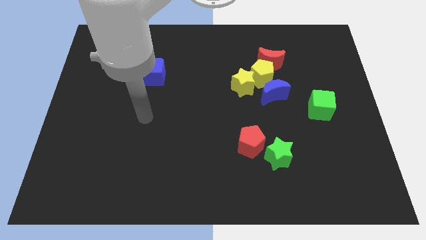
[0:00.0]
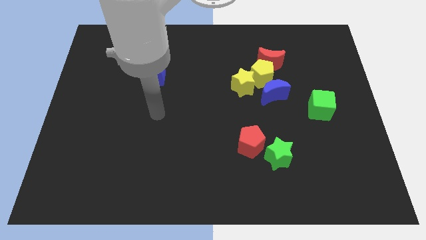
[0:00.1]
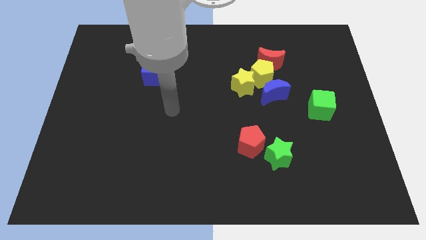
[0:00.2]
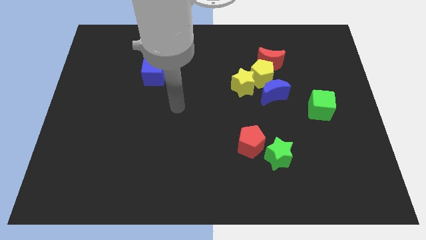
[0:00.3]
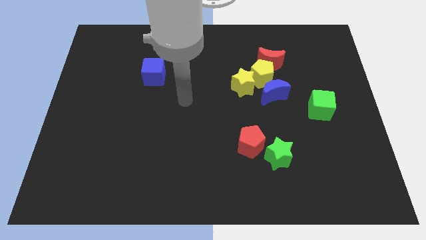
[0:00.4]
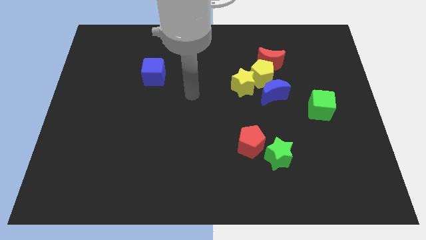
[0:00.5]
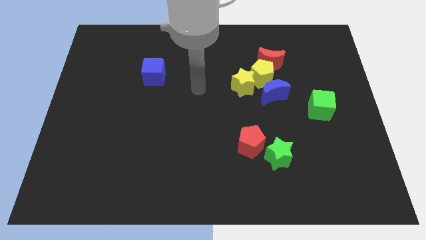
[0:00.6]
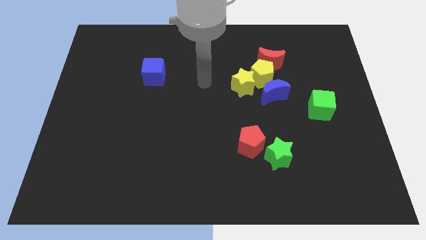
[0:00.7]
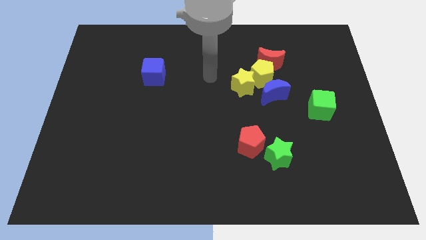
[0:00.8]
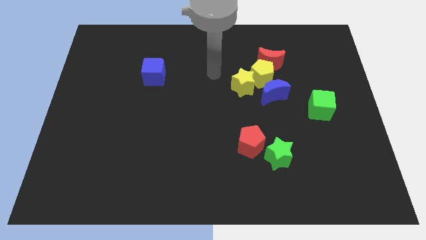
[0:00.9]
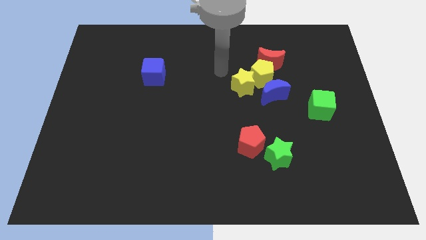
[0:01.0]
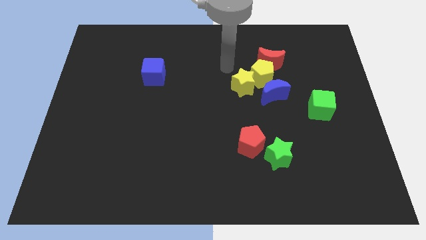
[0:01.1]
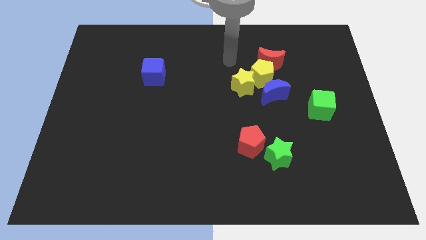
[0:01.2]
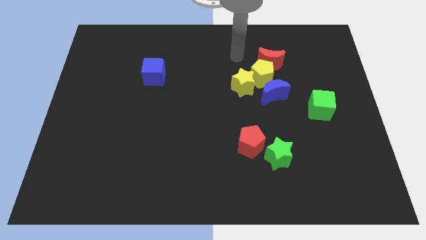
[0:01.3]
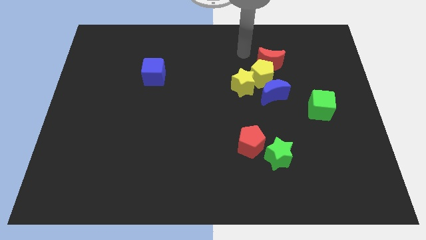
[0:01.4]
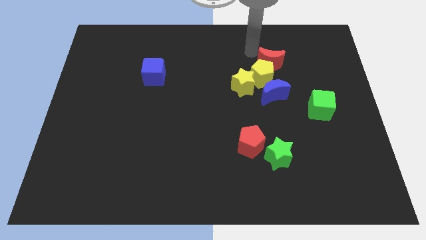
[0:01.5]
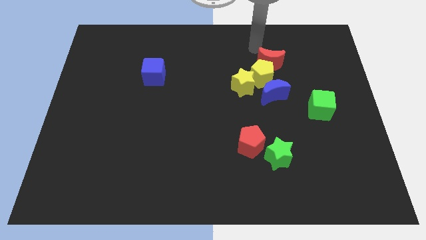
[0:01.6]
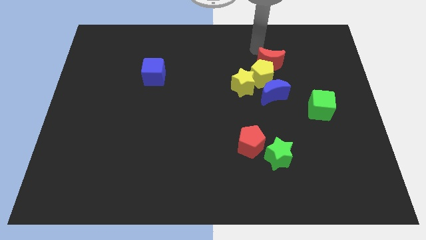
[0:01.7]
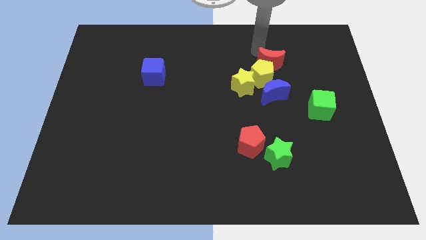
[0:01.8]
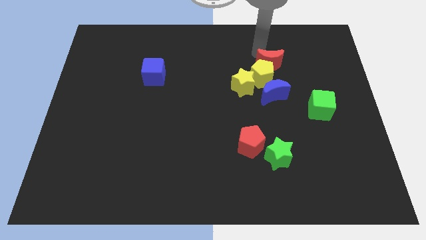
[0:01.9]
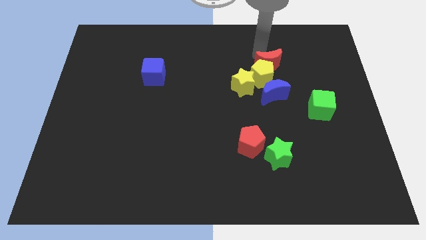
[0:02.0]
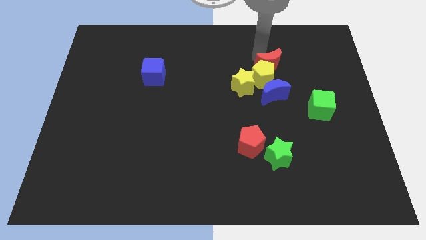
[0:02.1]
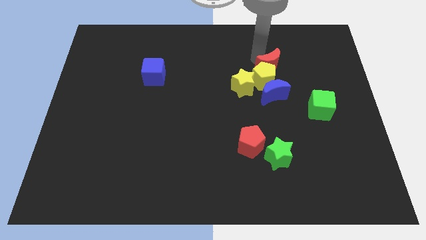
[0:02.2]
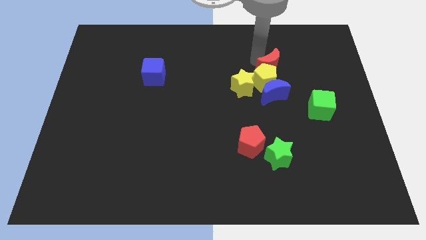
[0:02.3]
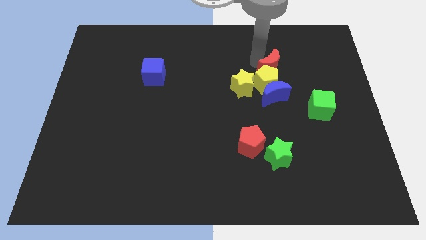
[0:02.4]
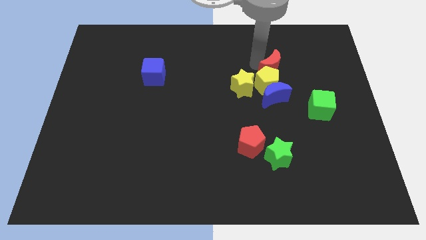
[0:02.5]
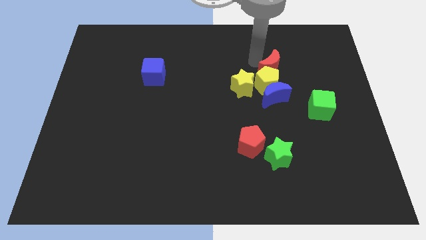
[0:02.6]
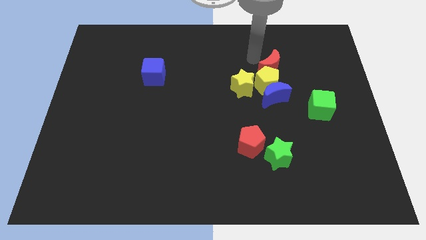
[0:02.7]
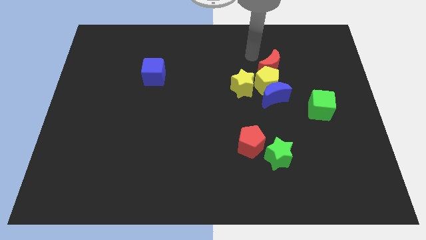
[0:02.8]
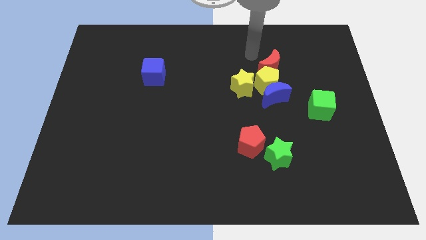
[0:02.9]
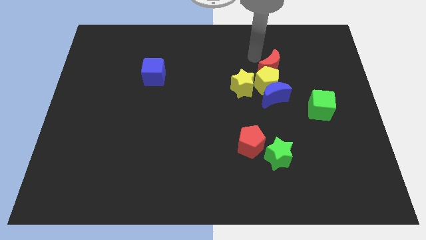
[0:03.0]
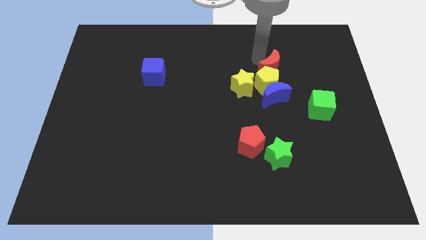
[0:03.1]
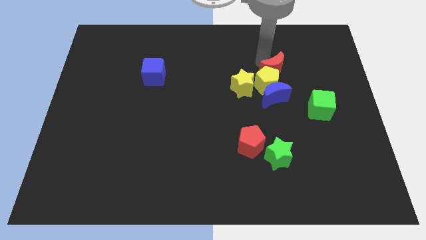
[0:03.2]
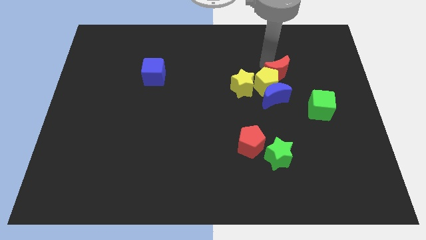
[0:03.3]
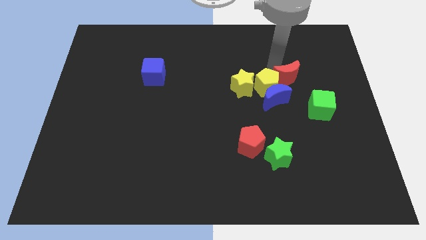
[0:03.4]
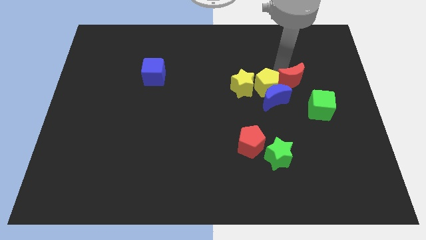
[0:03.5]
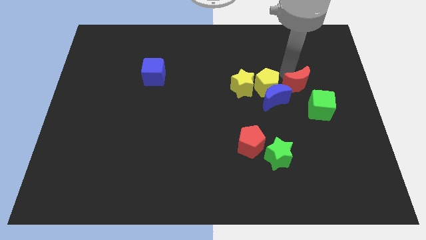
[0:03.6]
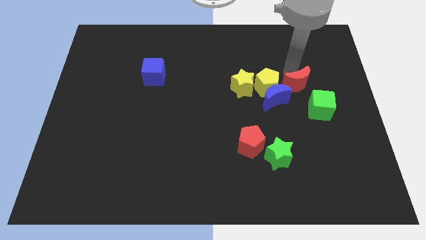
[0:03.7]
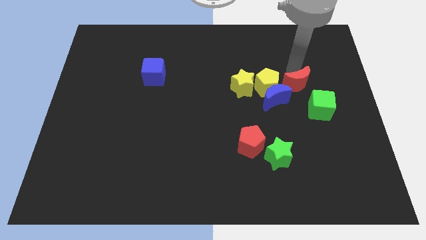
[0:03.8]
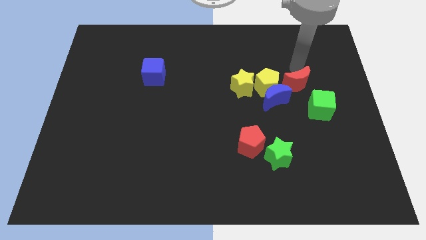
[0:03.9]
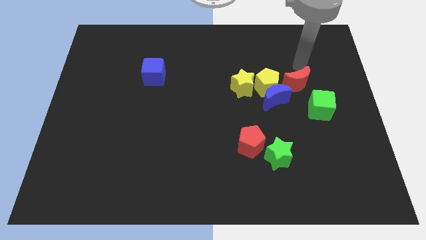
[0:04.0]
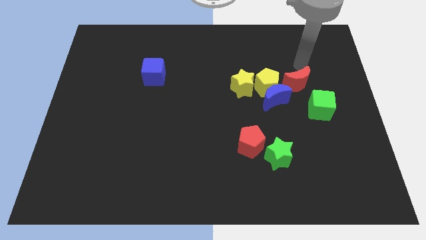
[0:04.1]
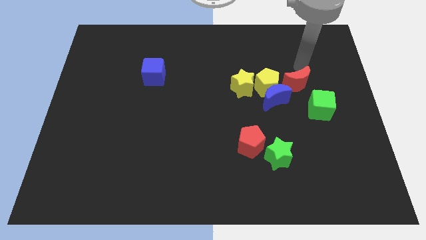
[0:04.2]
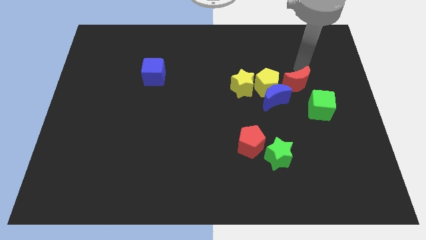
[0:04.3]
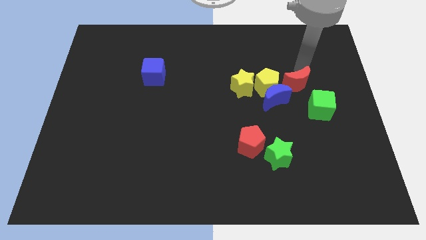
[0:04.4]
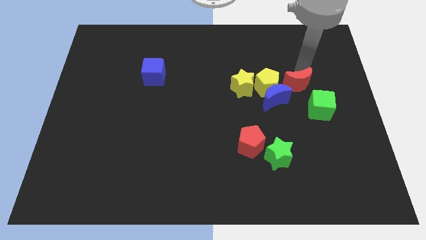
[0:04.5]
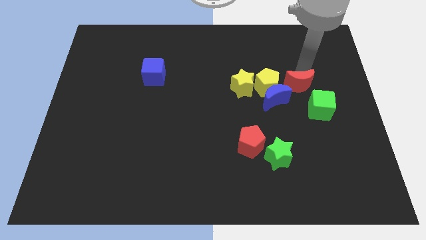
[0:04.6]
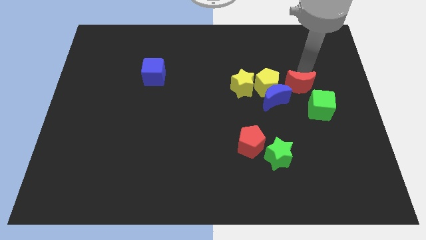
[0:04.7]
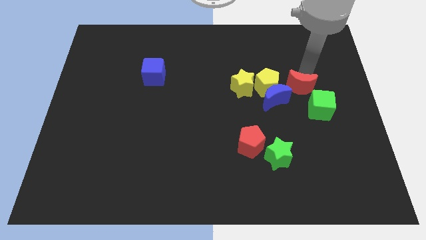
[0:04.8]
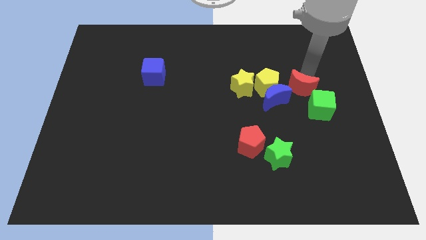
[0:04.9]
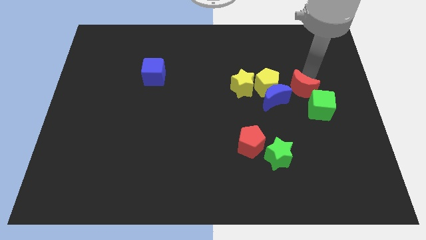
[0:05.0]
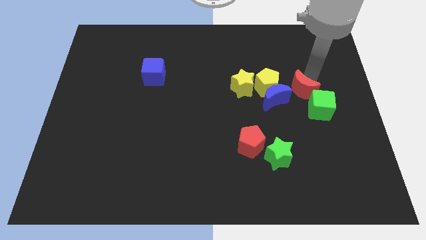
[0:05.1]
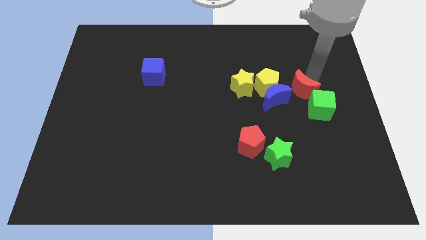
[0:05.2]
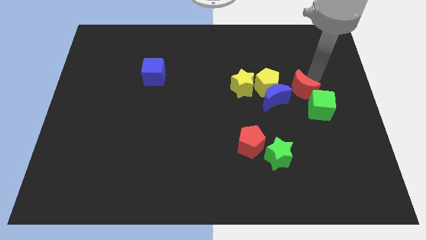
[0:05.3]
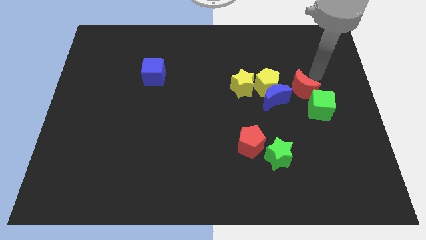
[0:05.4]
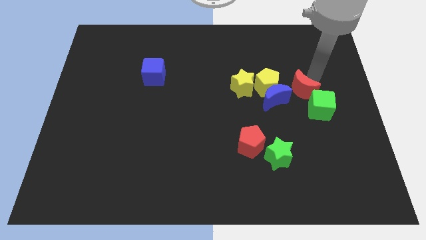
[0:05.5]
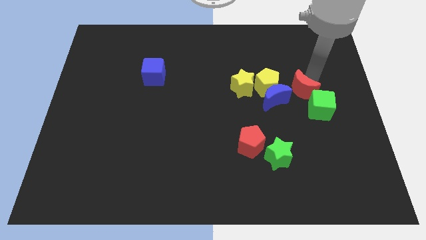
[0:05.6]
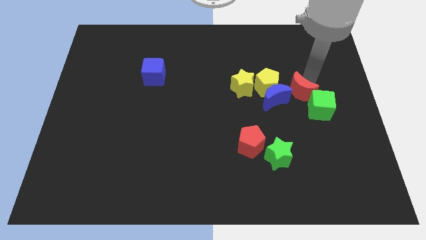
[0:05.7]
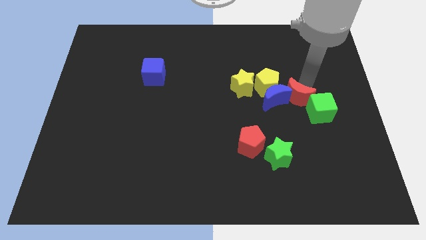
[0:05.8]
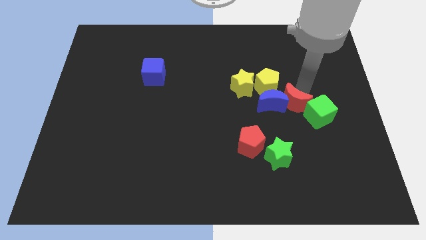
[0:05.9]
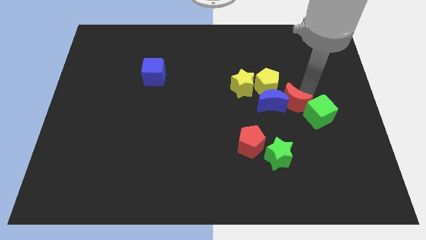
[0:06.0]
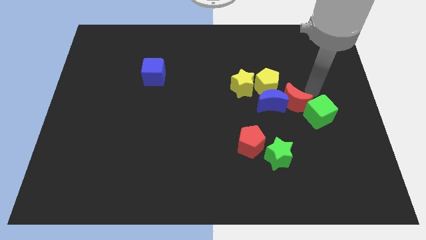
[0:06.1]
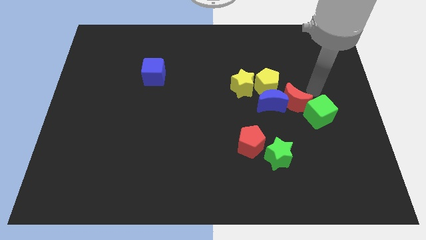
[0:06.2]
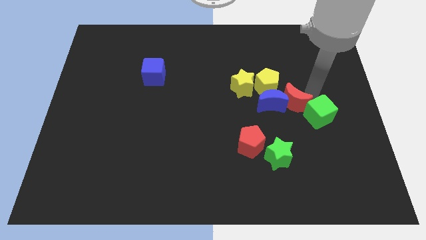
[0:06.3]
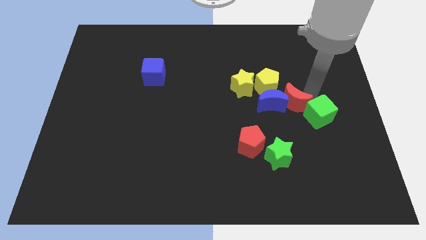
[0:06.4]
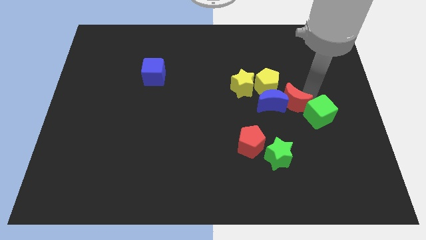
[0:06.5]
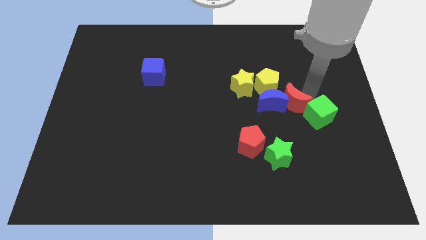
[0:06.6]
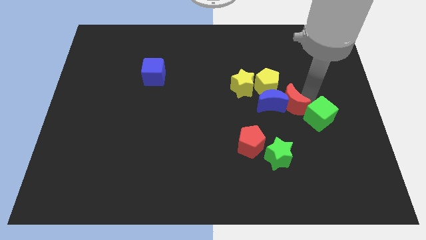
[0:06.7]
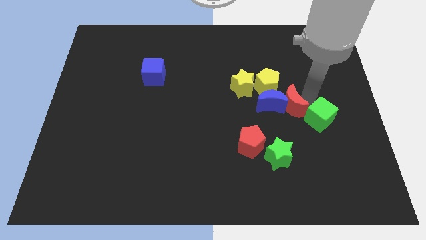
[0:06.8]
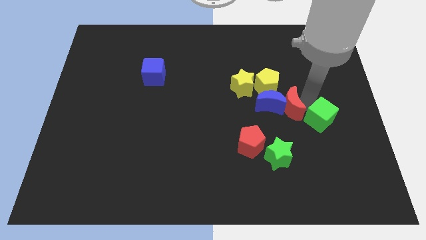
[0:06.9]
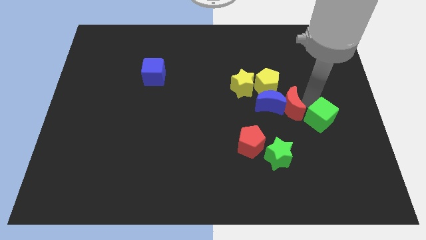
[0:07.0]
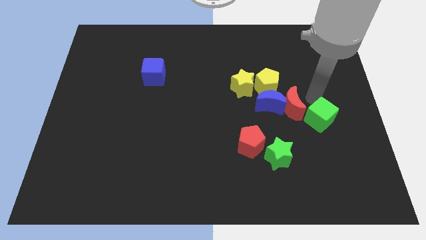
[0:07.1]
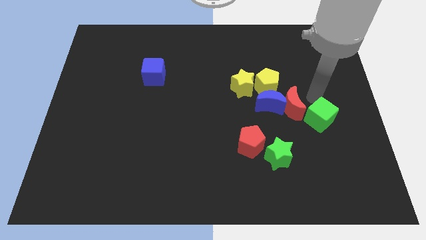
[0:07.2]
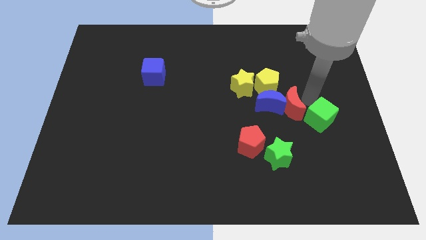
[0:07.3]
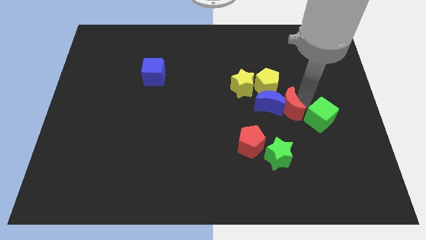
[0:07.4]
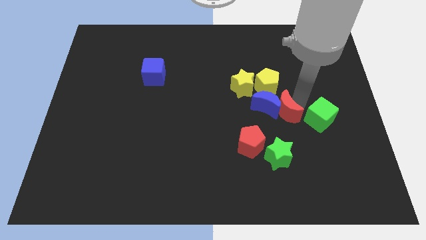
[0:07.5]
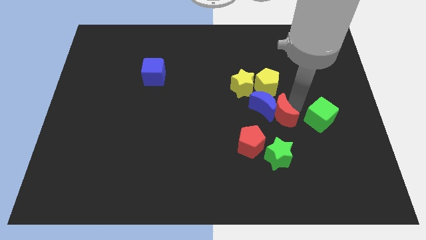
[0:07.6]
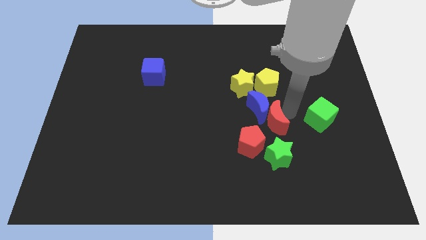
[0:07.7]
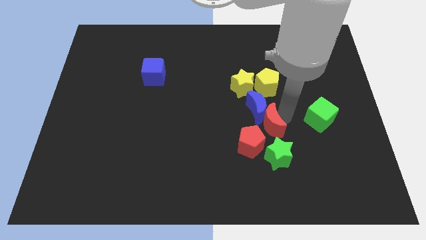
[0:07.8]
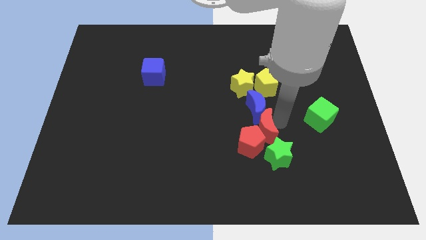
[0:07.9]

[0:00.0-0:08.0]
push the red moon to the bottom of the yellow star
